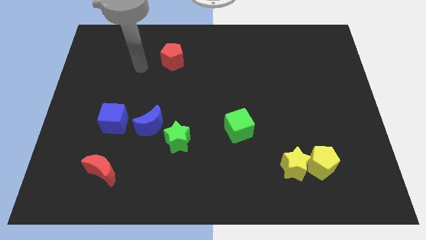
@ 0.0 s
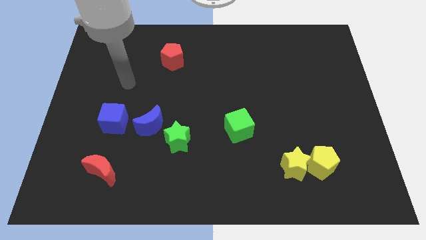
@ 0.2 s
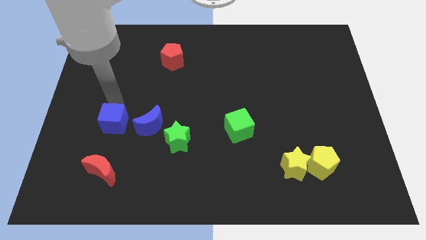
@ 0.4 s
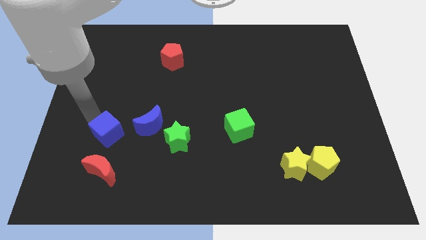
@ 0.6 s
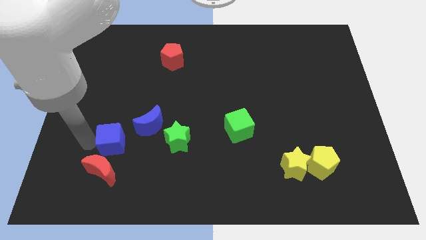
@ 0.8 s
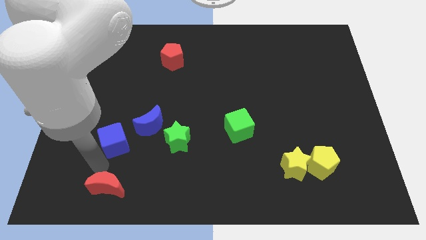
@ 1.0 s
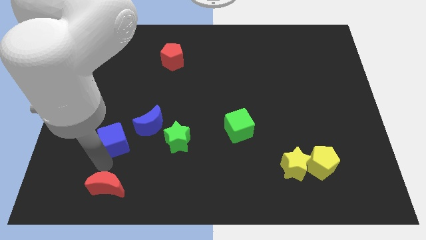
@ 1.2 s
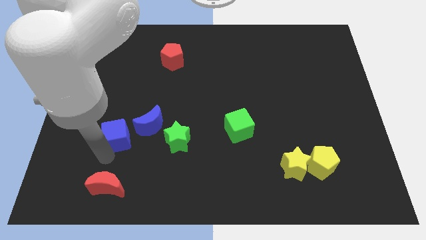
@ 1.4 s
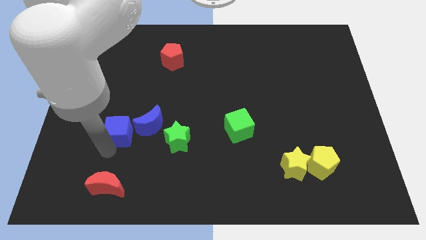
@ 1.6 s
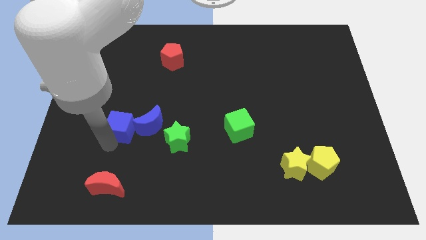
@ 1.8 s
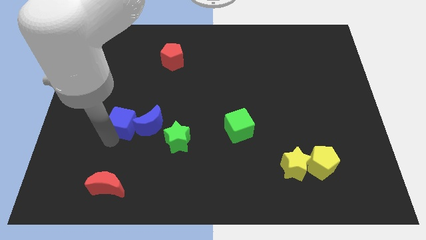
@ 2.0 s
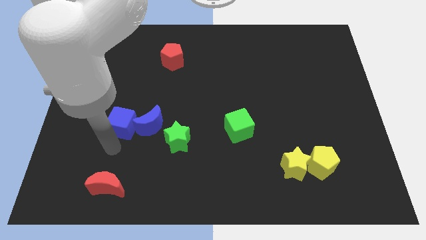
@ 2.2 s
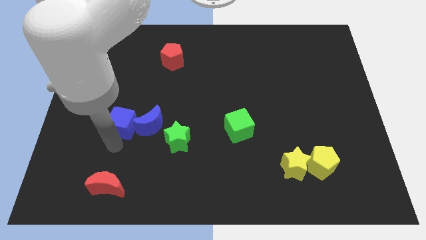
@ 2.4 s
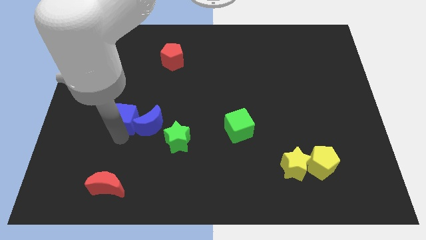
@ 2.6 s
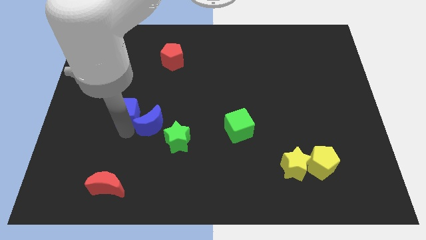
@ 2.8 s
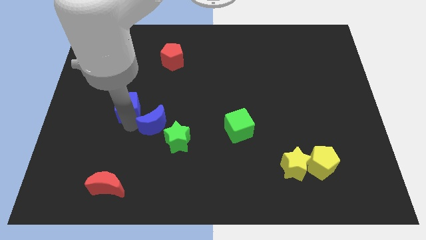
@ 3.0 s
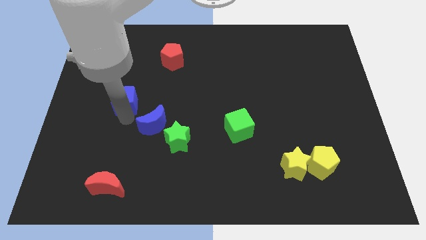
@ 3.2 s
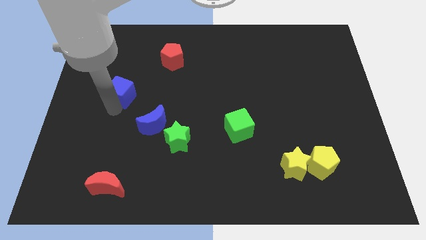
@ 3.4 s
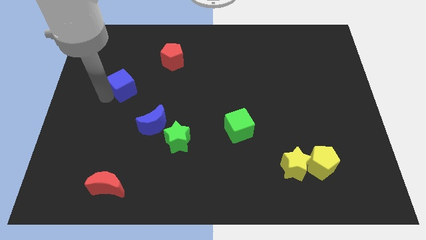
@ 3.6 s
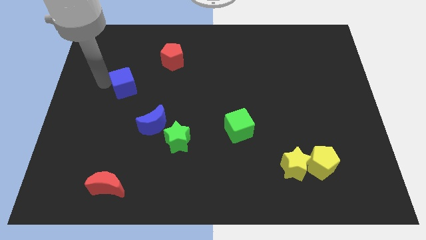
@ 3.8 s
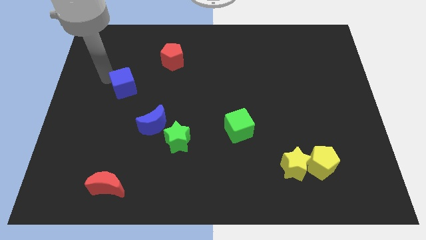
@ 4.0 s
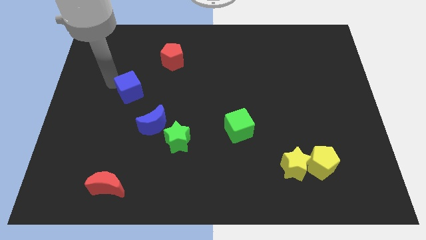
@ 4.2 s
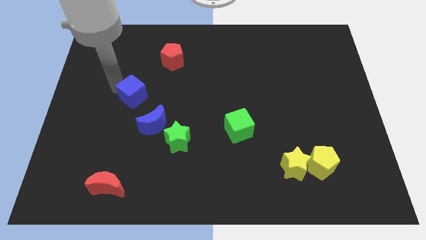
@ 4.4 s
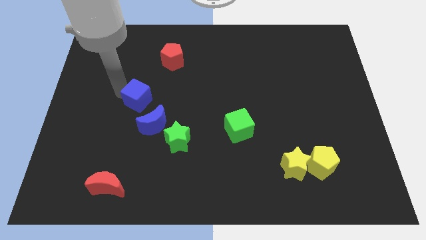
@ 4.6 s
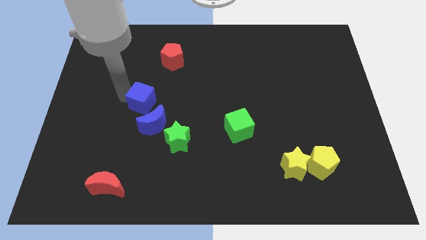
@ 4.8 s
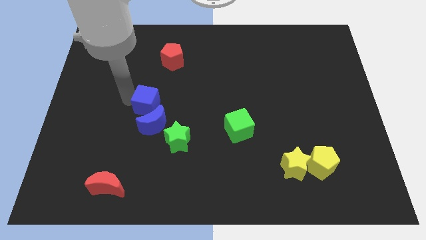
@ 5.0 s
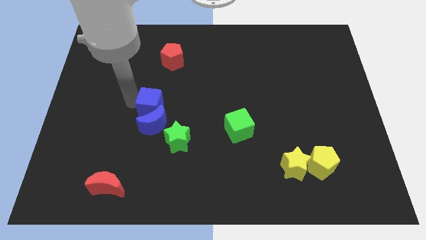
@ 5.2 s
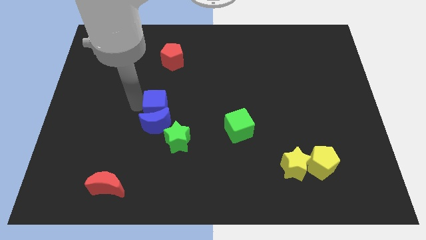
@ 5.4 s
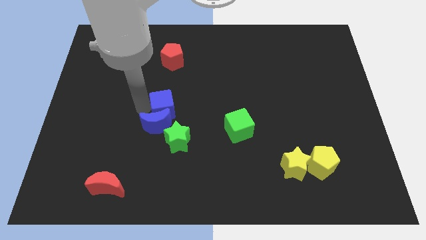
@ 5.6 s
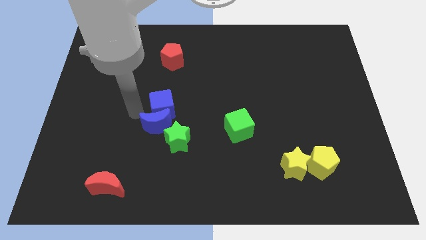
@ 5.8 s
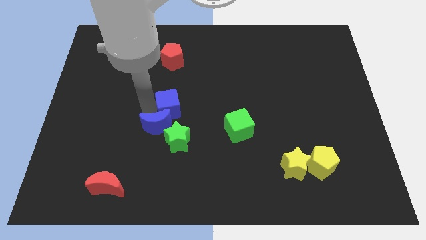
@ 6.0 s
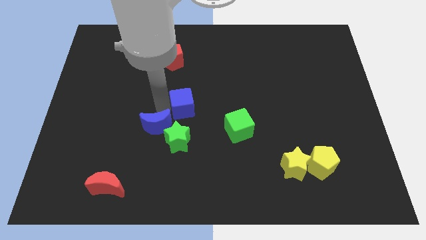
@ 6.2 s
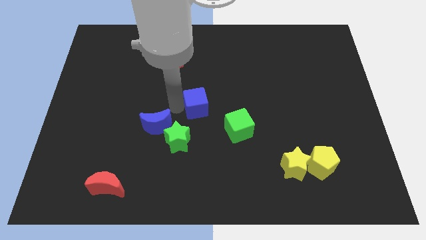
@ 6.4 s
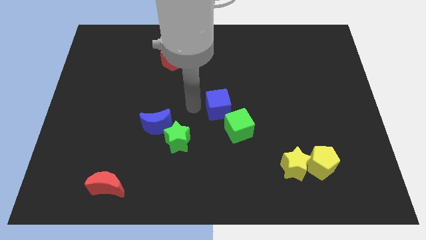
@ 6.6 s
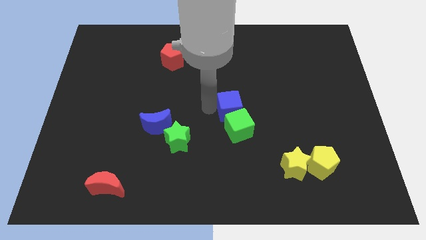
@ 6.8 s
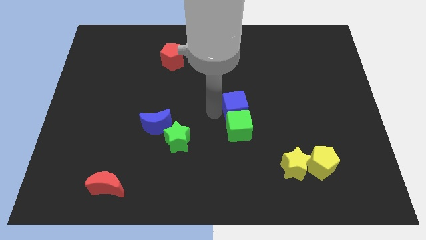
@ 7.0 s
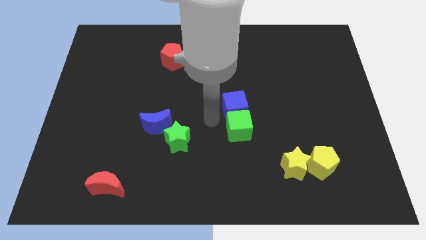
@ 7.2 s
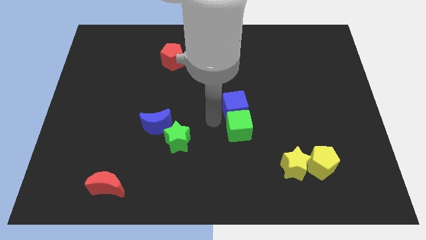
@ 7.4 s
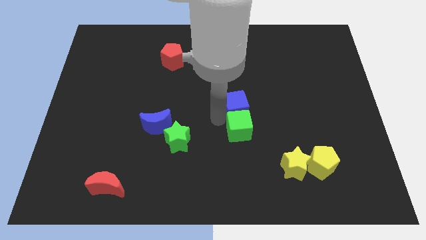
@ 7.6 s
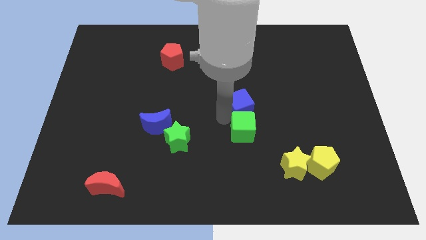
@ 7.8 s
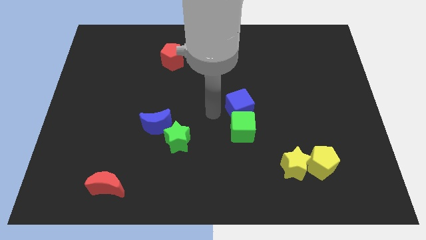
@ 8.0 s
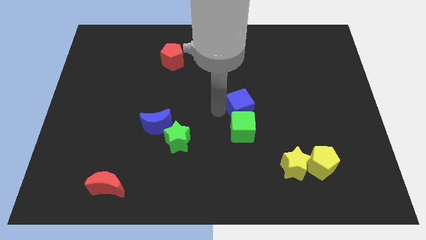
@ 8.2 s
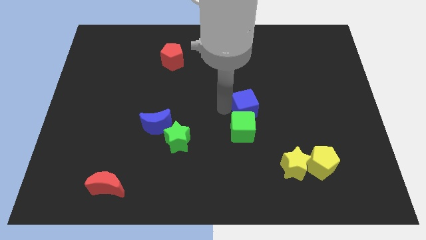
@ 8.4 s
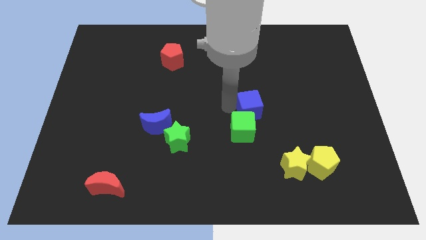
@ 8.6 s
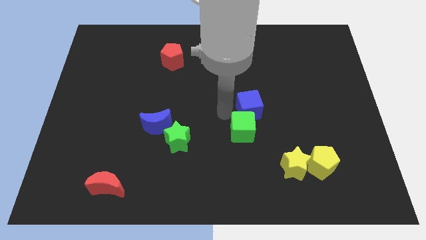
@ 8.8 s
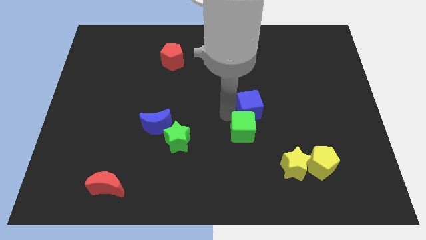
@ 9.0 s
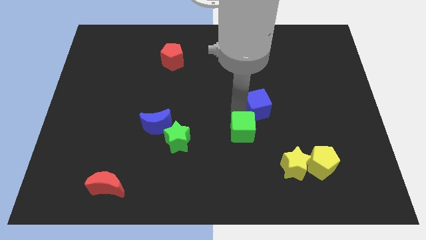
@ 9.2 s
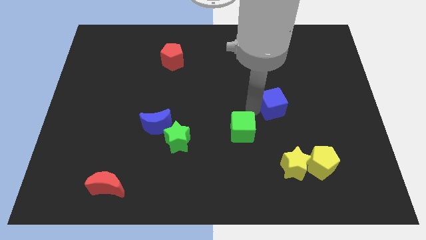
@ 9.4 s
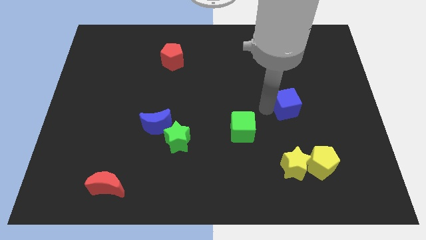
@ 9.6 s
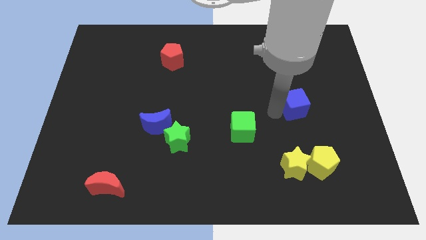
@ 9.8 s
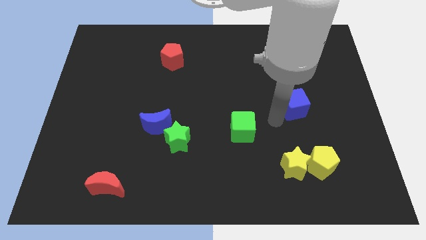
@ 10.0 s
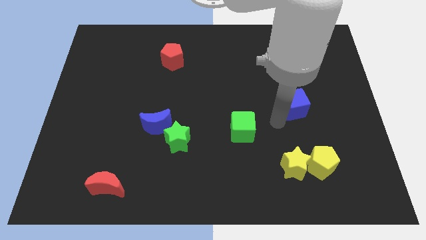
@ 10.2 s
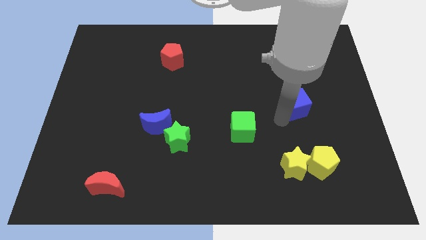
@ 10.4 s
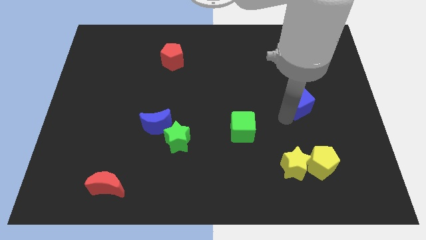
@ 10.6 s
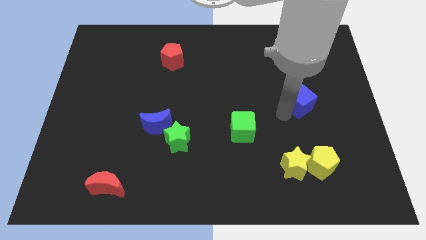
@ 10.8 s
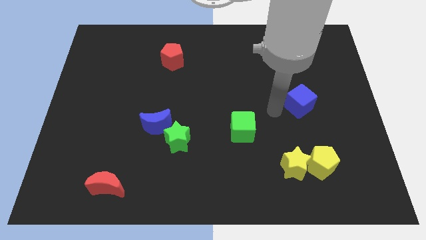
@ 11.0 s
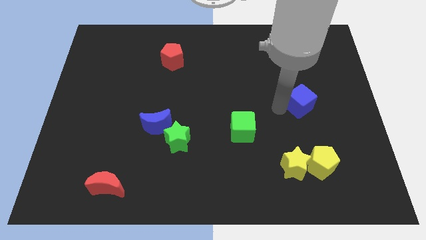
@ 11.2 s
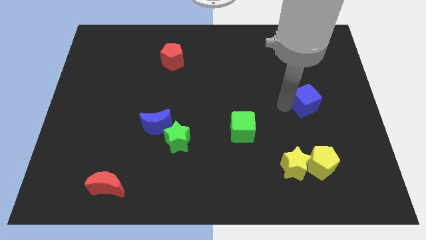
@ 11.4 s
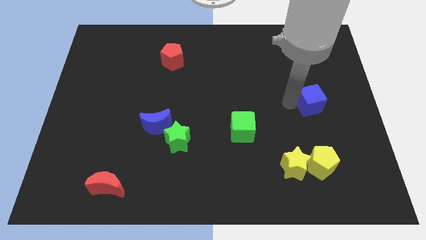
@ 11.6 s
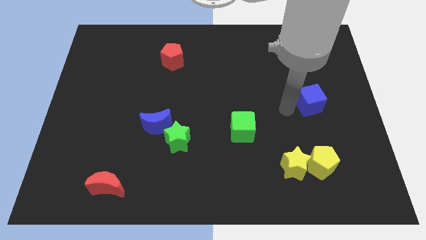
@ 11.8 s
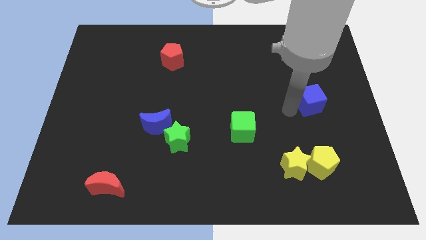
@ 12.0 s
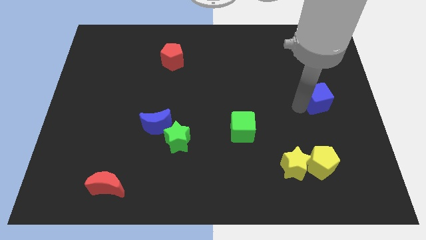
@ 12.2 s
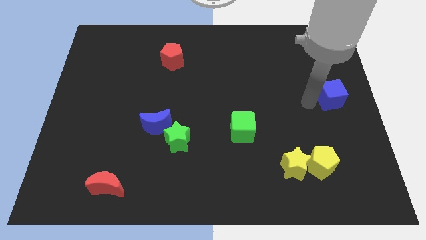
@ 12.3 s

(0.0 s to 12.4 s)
push the blue cube to the center right

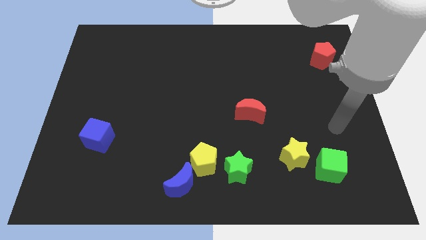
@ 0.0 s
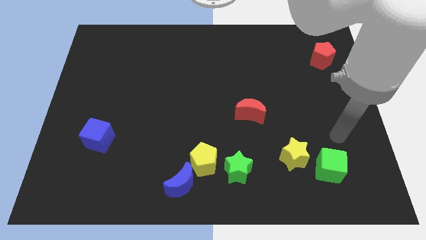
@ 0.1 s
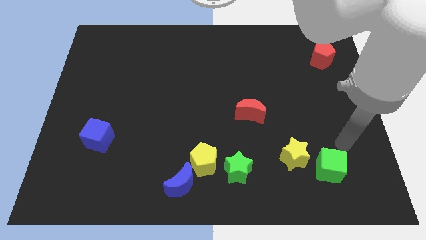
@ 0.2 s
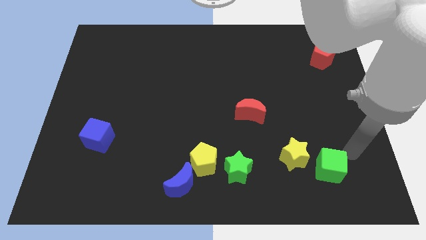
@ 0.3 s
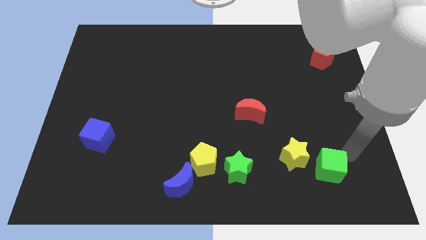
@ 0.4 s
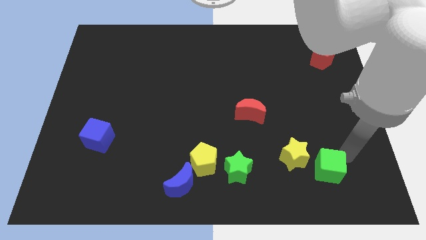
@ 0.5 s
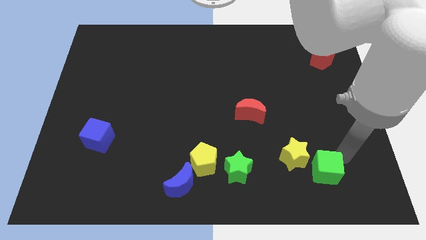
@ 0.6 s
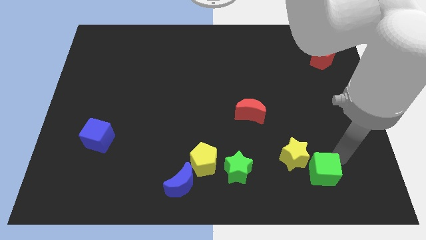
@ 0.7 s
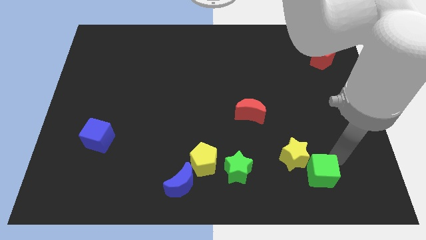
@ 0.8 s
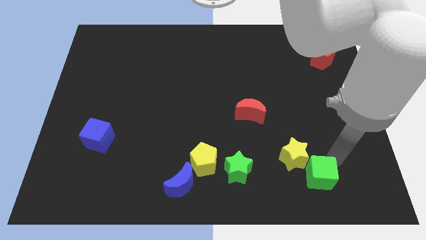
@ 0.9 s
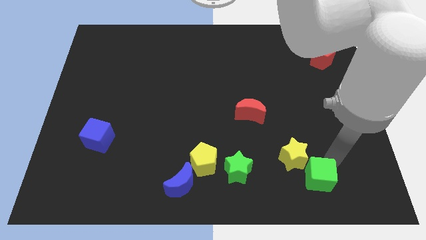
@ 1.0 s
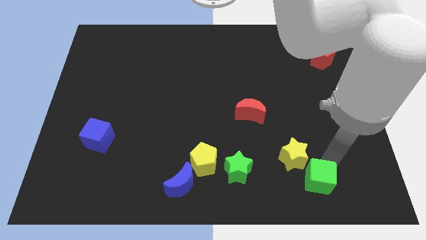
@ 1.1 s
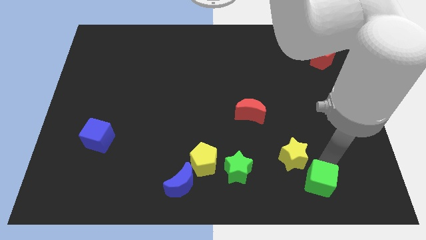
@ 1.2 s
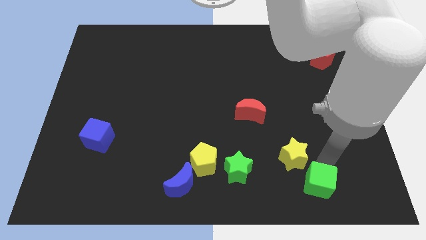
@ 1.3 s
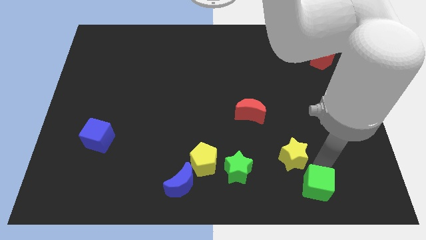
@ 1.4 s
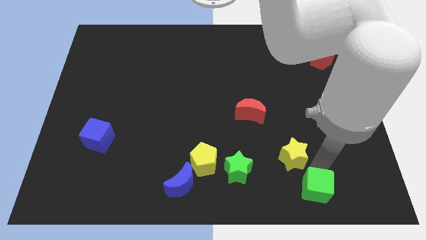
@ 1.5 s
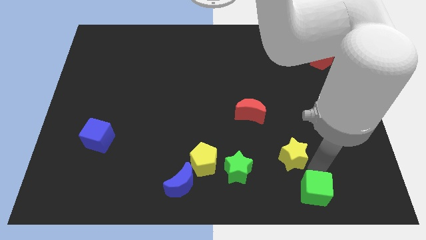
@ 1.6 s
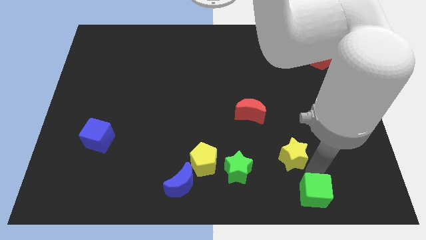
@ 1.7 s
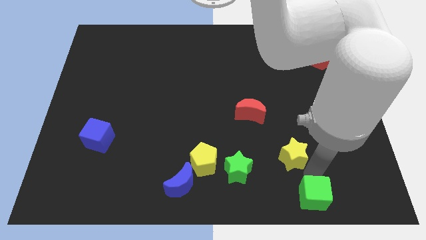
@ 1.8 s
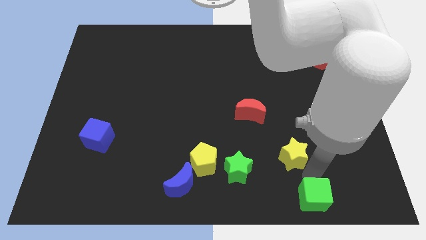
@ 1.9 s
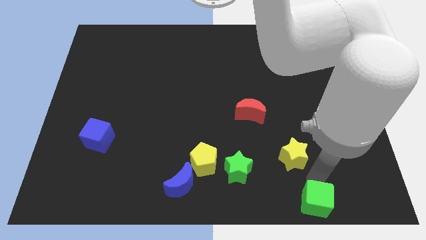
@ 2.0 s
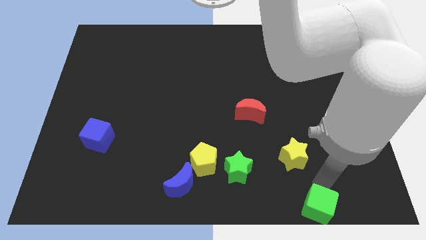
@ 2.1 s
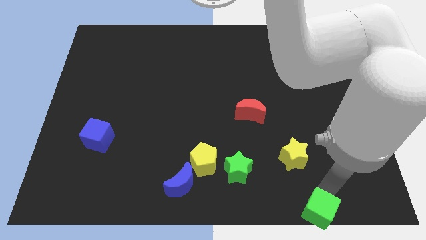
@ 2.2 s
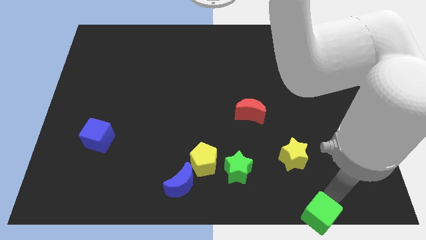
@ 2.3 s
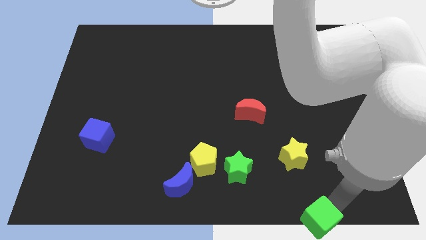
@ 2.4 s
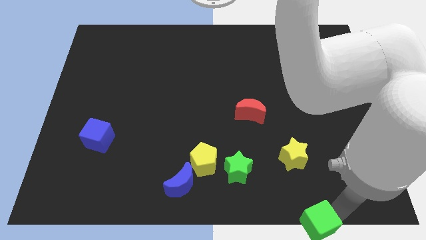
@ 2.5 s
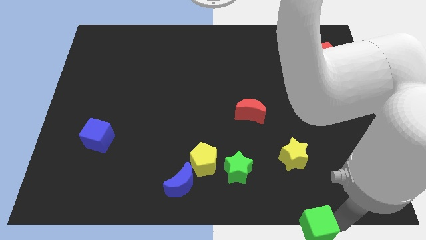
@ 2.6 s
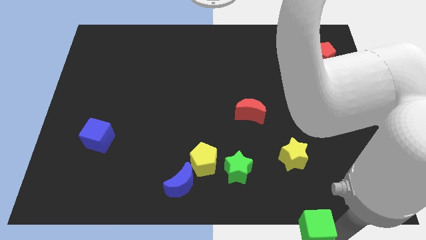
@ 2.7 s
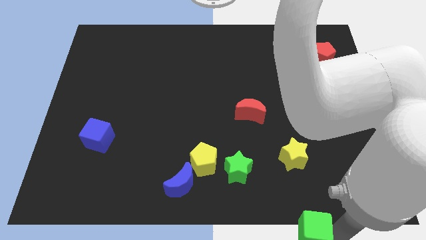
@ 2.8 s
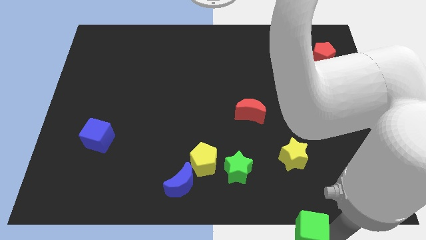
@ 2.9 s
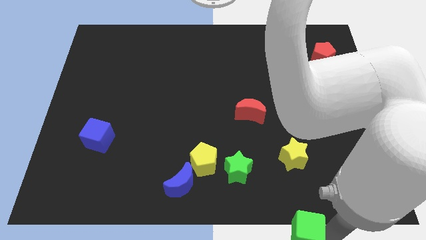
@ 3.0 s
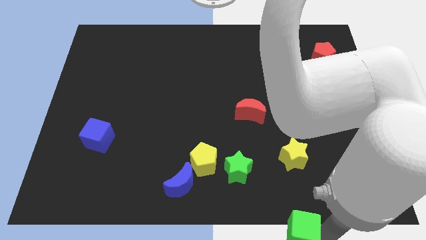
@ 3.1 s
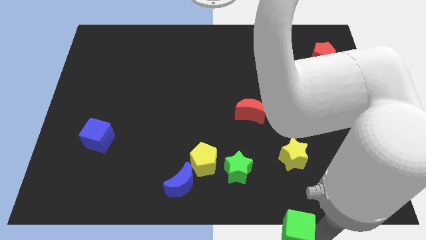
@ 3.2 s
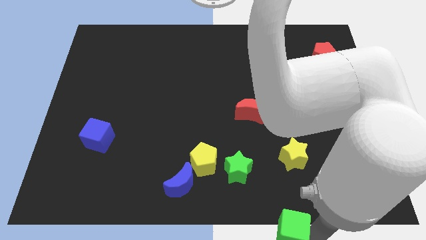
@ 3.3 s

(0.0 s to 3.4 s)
move the green cube to the bottom
